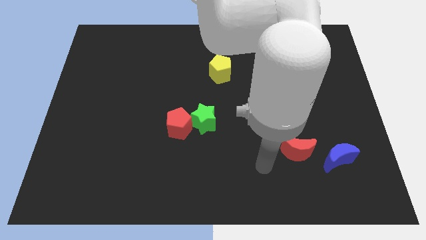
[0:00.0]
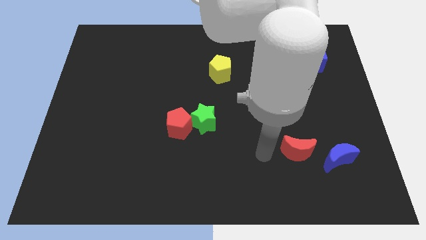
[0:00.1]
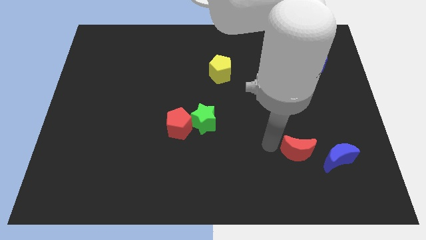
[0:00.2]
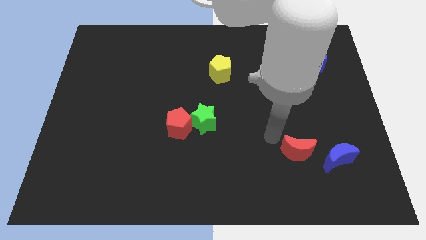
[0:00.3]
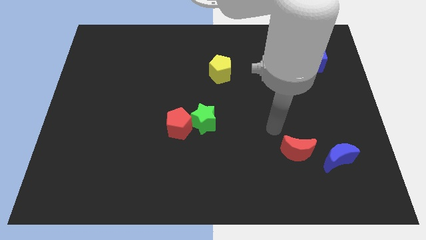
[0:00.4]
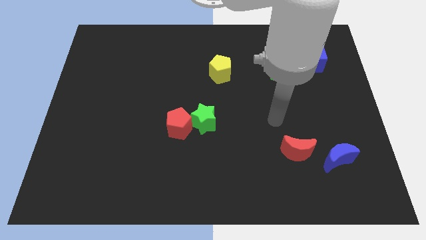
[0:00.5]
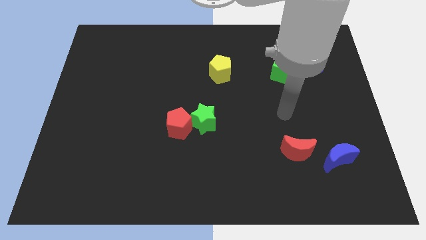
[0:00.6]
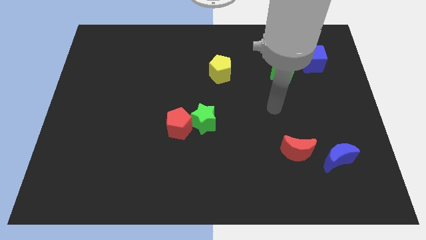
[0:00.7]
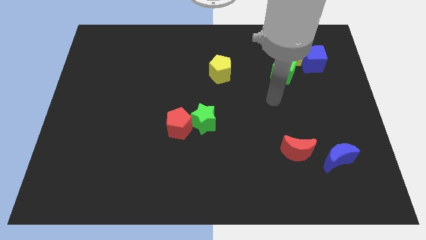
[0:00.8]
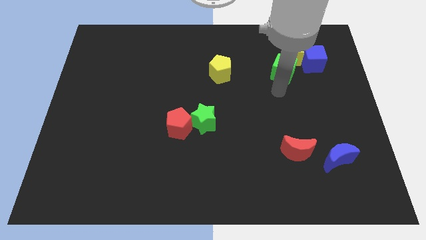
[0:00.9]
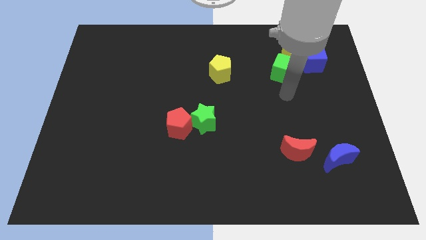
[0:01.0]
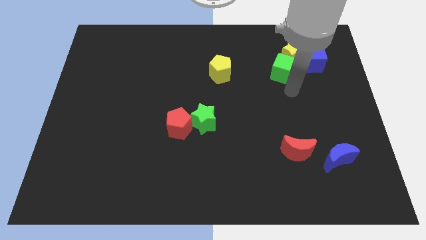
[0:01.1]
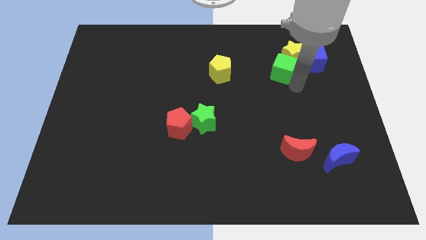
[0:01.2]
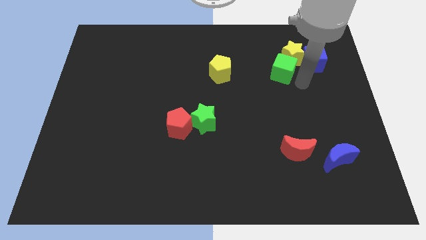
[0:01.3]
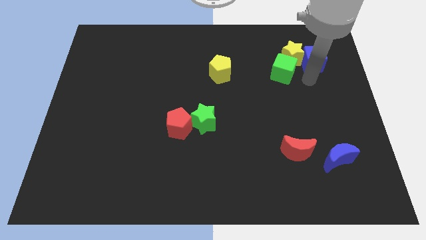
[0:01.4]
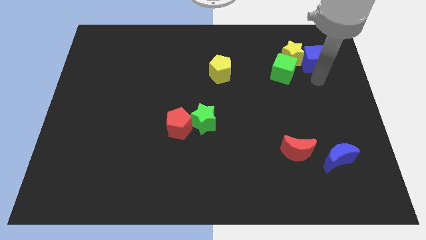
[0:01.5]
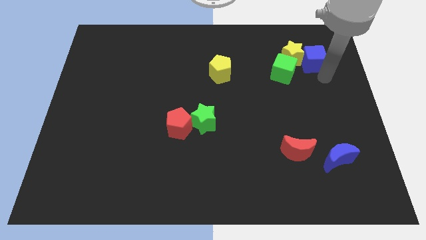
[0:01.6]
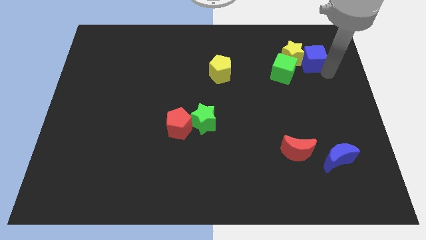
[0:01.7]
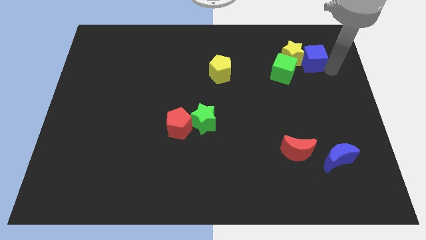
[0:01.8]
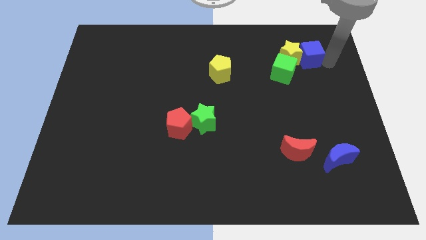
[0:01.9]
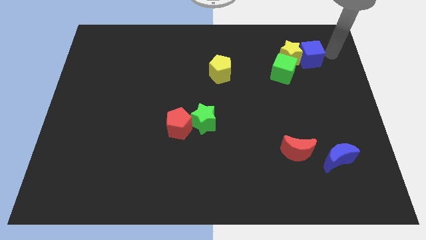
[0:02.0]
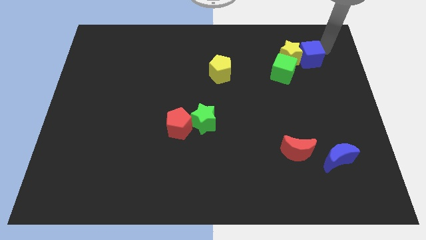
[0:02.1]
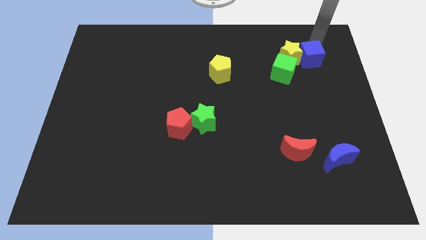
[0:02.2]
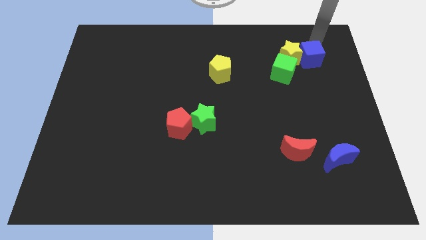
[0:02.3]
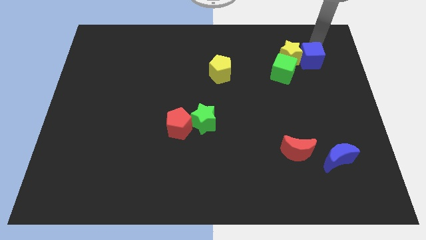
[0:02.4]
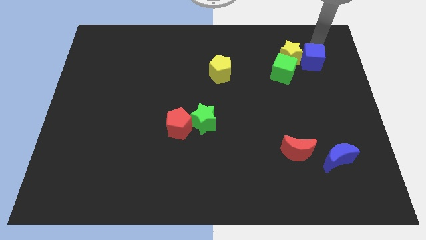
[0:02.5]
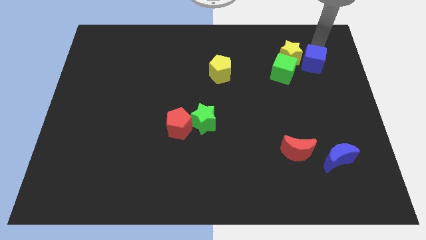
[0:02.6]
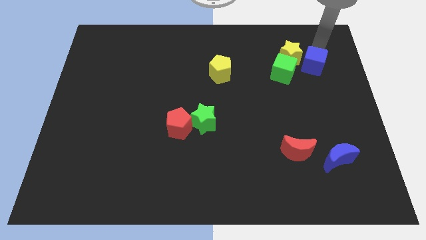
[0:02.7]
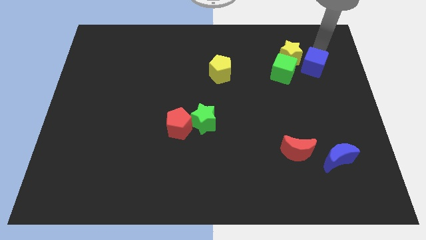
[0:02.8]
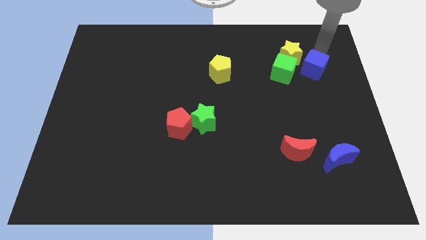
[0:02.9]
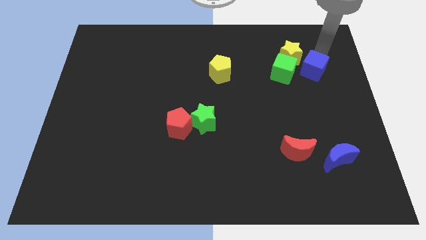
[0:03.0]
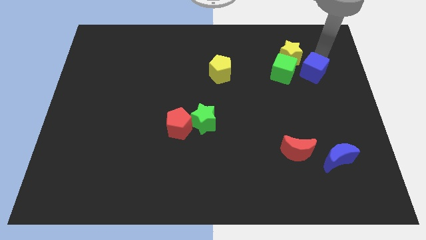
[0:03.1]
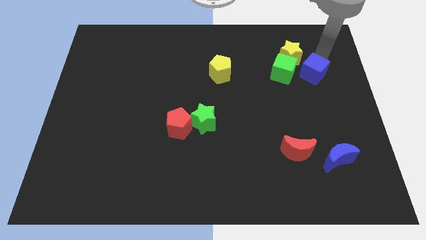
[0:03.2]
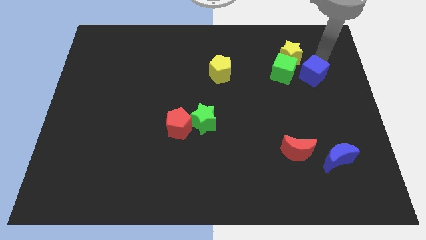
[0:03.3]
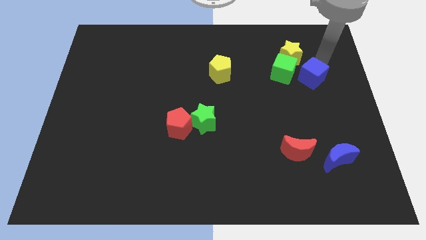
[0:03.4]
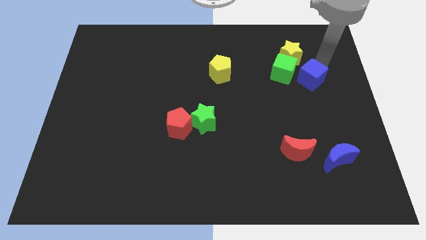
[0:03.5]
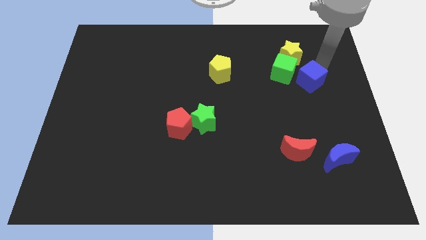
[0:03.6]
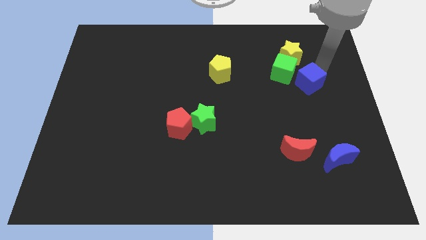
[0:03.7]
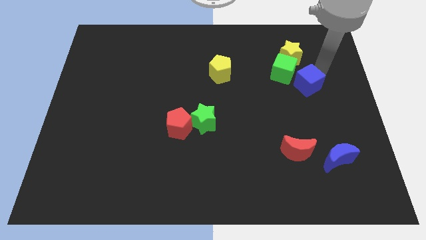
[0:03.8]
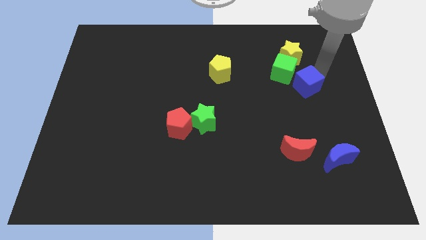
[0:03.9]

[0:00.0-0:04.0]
slightly move the blue cube diagonally downwards and to the left

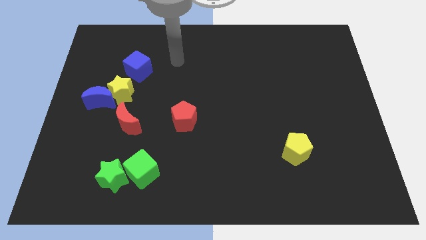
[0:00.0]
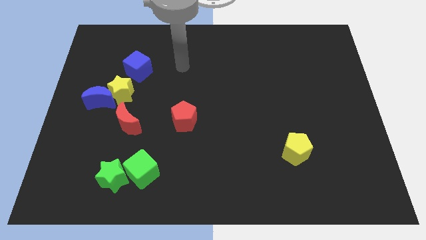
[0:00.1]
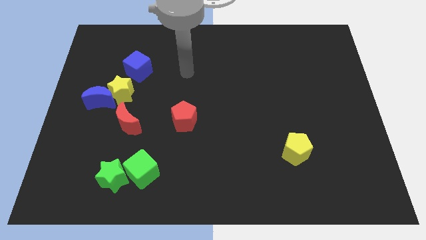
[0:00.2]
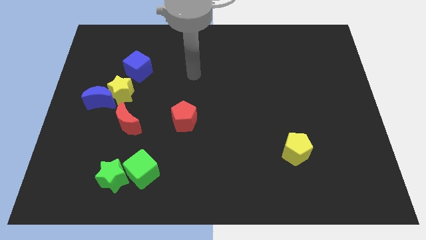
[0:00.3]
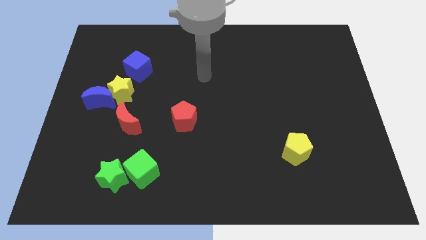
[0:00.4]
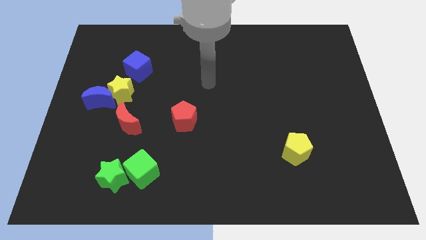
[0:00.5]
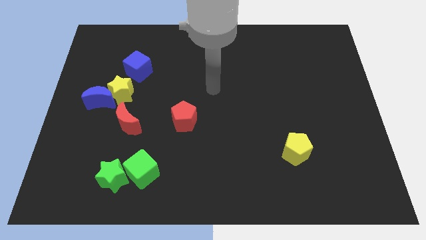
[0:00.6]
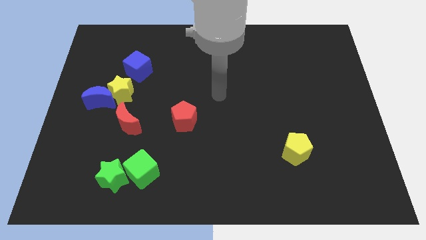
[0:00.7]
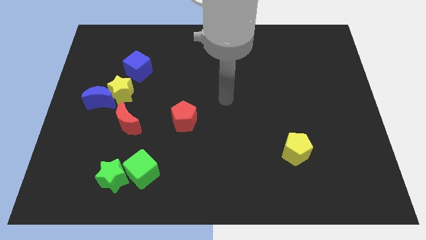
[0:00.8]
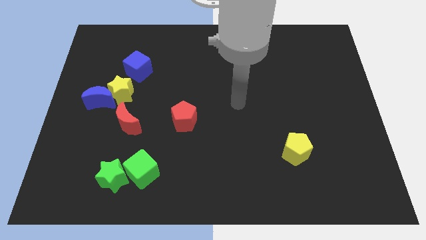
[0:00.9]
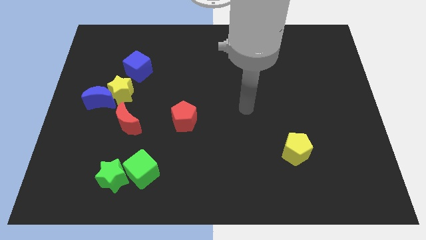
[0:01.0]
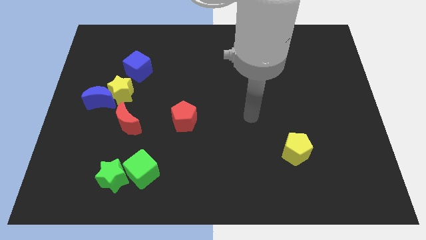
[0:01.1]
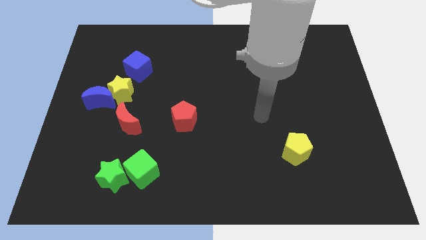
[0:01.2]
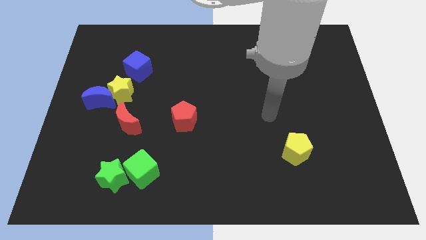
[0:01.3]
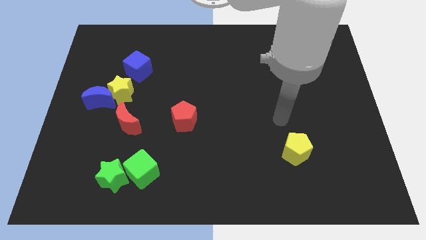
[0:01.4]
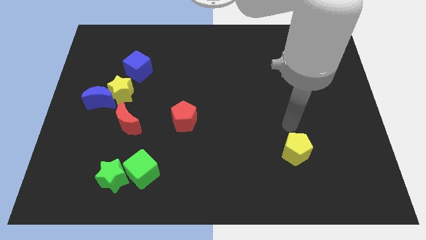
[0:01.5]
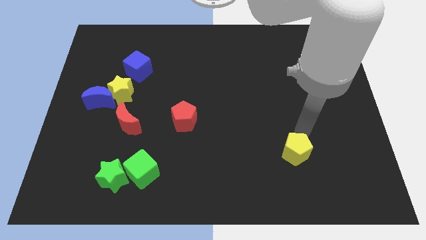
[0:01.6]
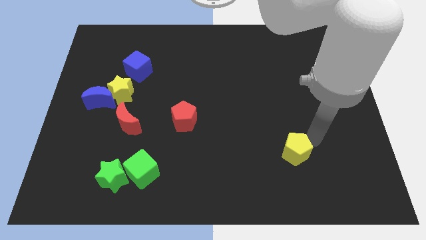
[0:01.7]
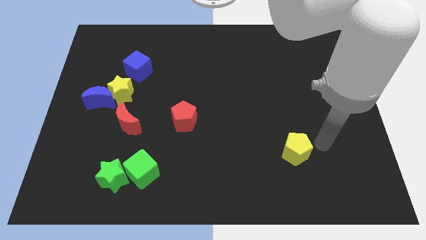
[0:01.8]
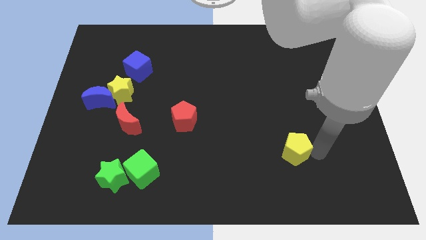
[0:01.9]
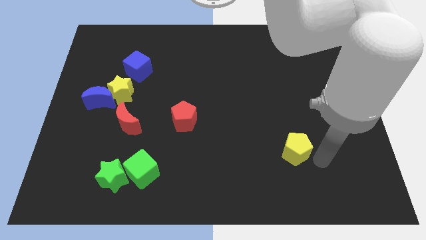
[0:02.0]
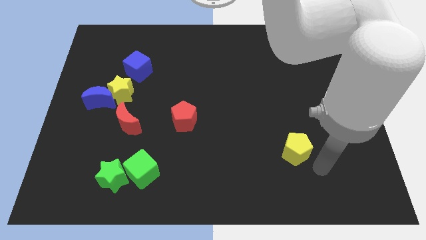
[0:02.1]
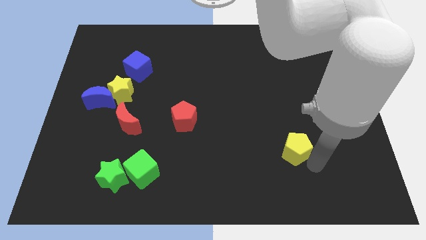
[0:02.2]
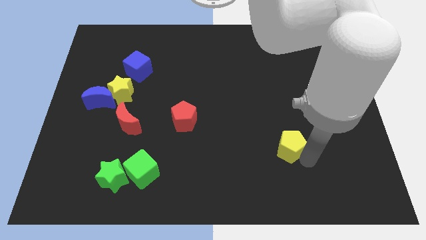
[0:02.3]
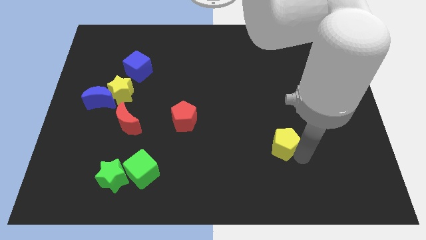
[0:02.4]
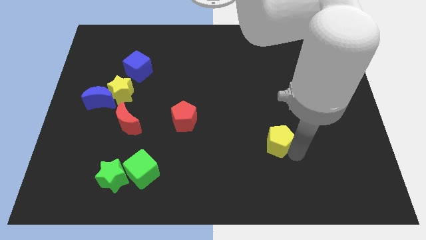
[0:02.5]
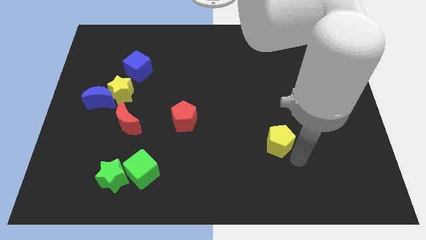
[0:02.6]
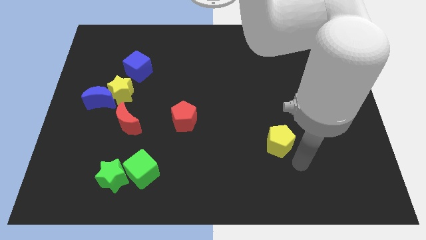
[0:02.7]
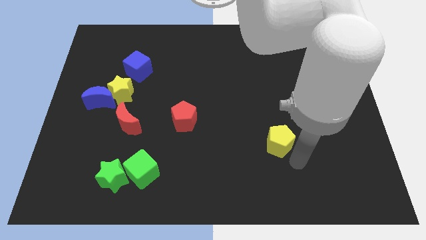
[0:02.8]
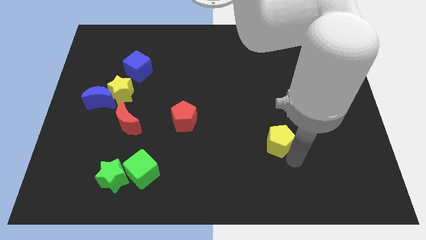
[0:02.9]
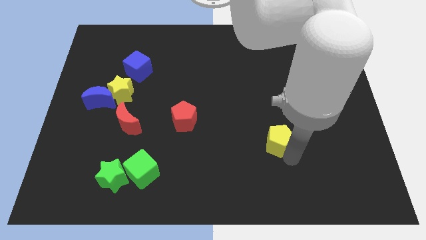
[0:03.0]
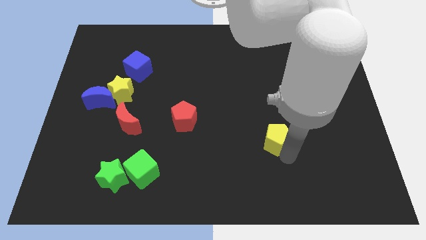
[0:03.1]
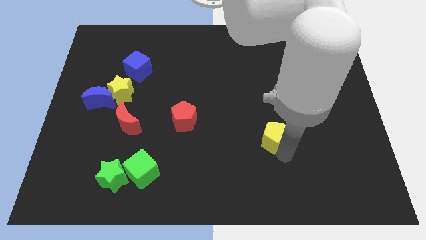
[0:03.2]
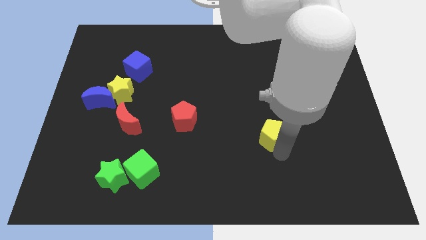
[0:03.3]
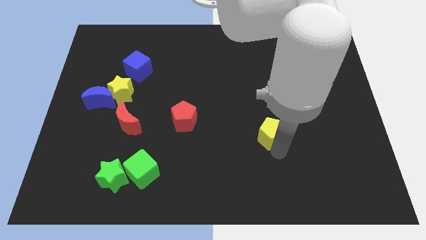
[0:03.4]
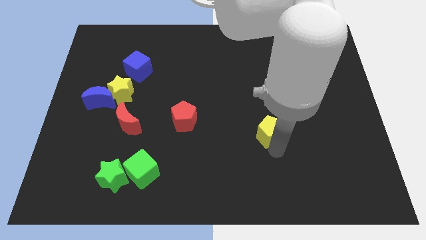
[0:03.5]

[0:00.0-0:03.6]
slide the yellow pentagon upwards and then left a little

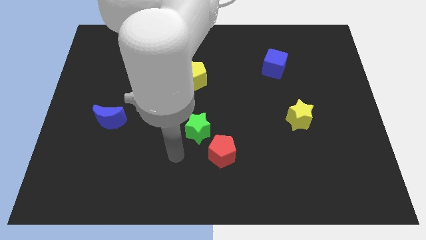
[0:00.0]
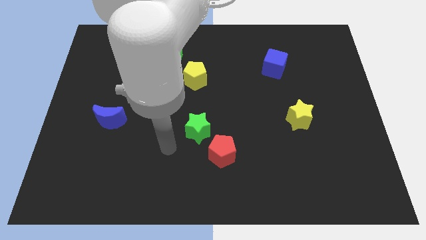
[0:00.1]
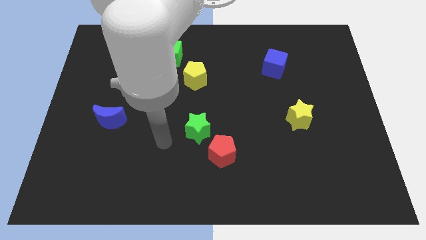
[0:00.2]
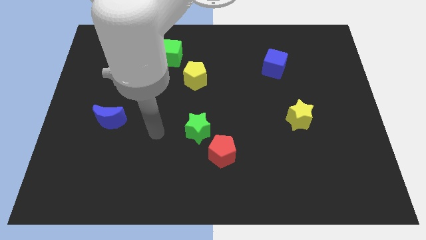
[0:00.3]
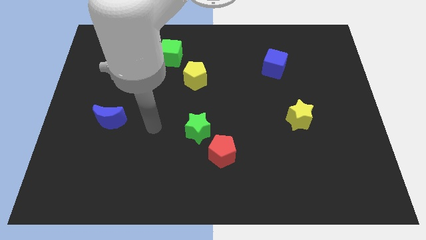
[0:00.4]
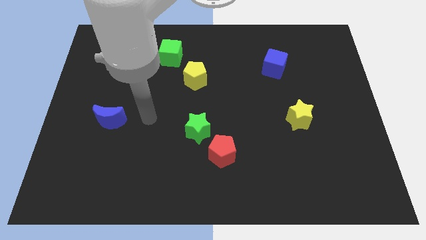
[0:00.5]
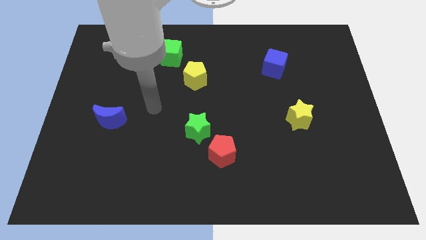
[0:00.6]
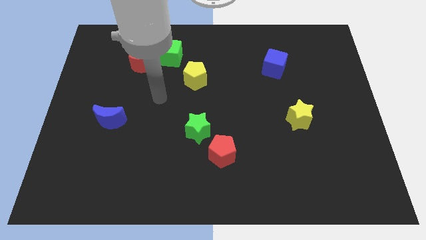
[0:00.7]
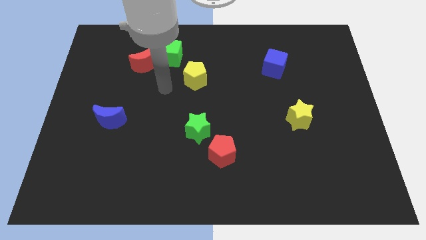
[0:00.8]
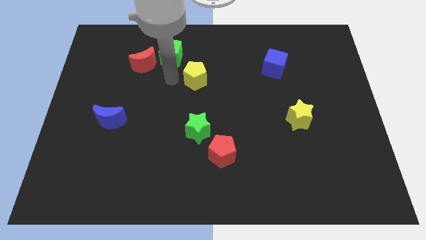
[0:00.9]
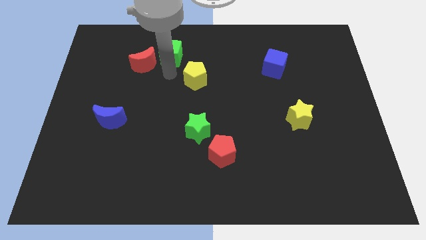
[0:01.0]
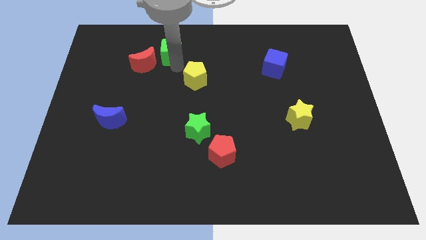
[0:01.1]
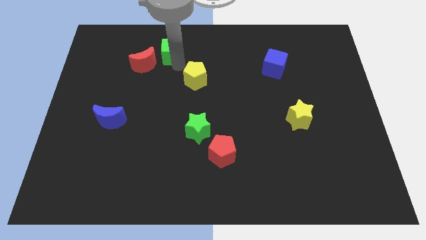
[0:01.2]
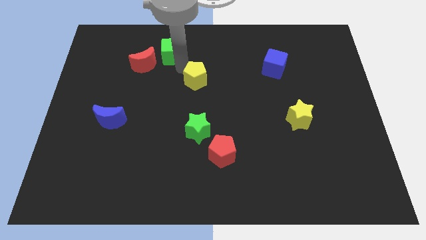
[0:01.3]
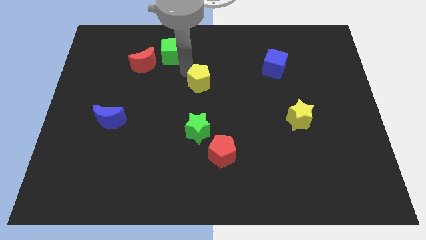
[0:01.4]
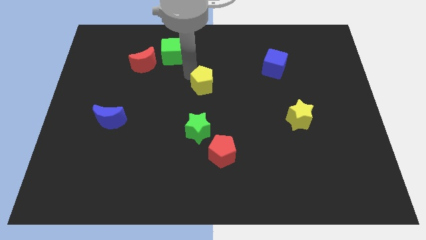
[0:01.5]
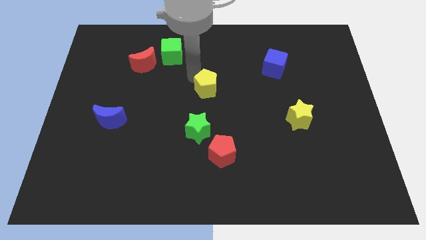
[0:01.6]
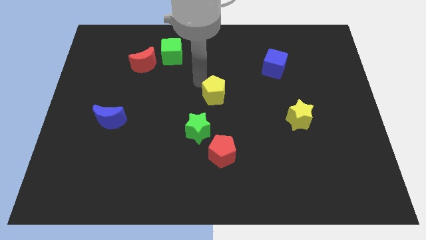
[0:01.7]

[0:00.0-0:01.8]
slide the yellow pentagon downwards and then right a bit
